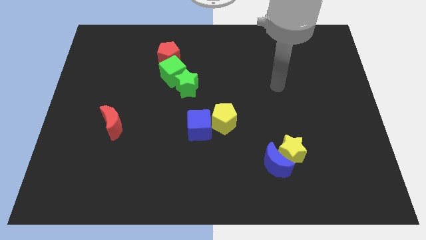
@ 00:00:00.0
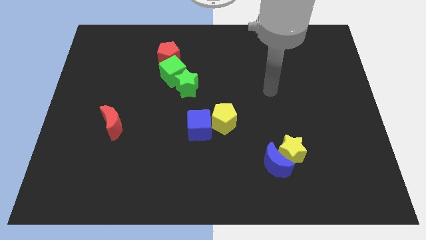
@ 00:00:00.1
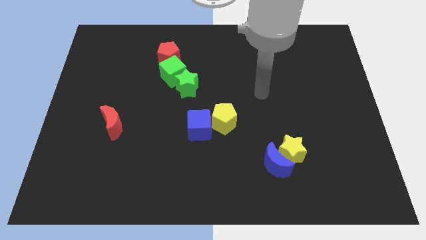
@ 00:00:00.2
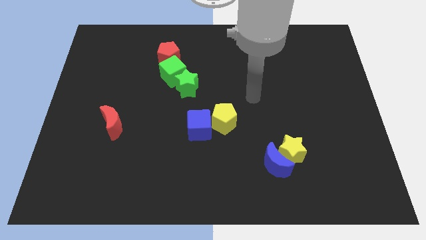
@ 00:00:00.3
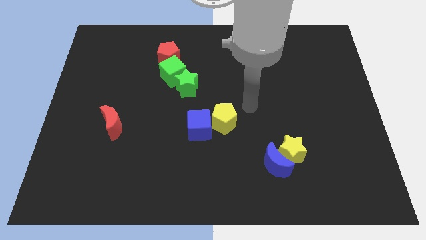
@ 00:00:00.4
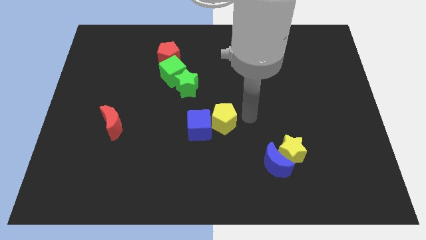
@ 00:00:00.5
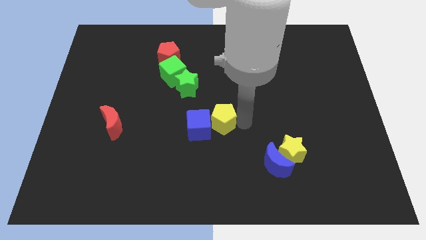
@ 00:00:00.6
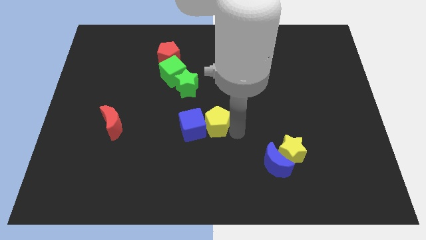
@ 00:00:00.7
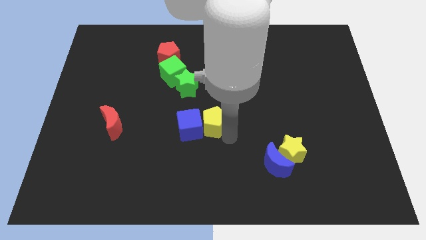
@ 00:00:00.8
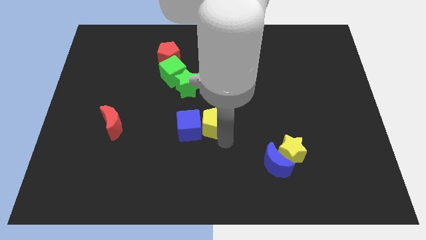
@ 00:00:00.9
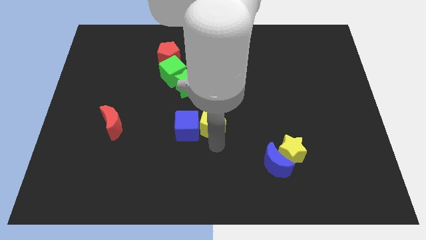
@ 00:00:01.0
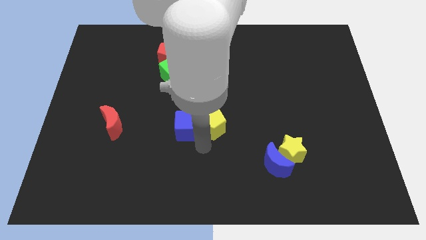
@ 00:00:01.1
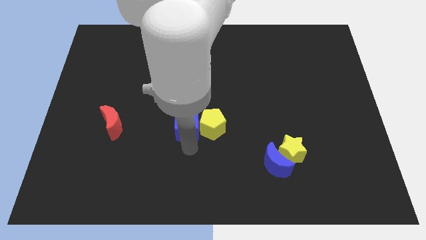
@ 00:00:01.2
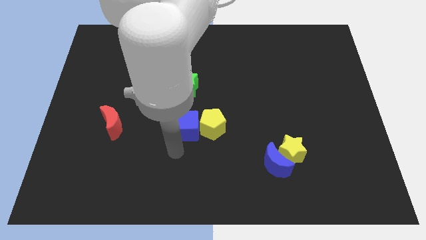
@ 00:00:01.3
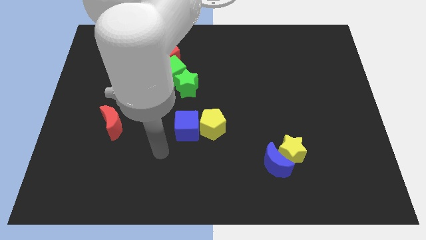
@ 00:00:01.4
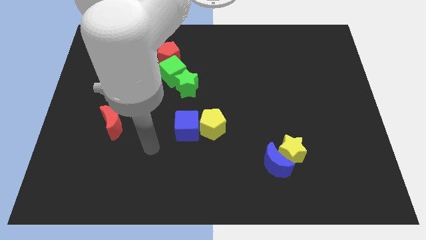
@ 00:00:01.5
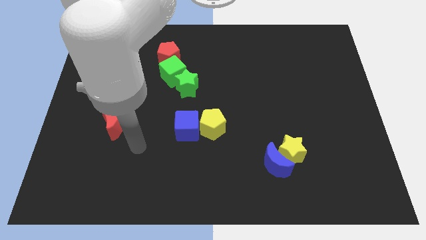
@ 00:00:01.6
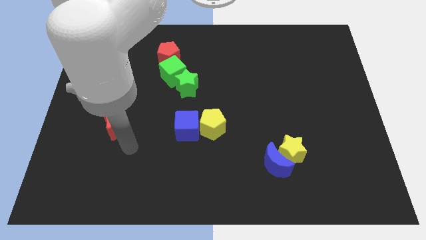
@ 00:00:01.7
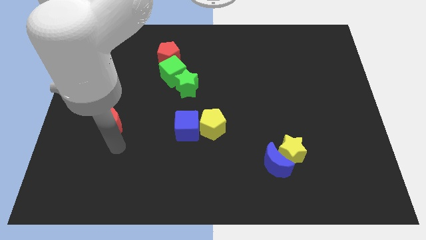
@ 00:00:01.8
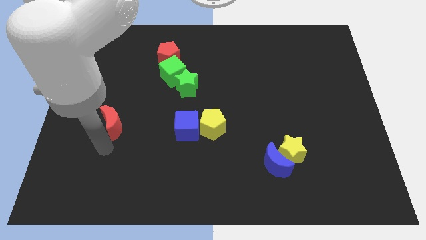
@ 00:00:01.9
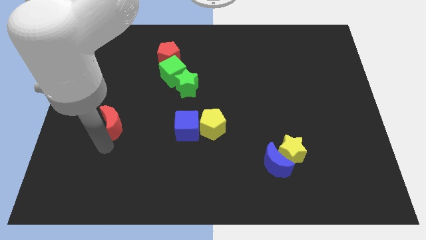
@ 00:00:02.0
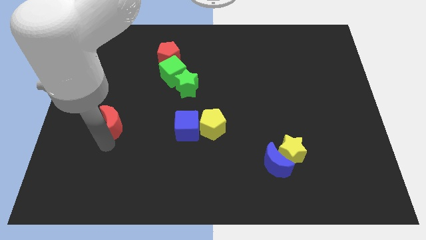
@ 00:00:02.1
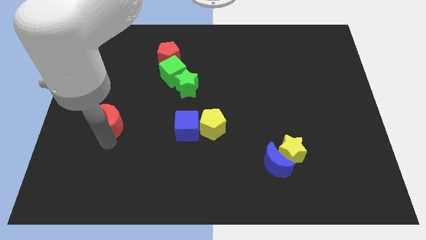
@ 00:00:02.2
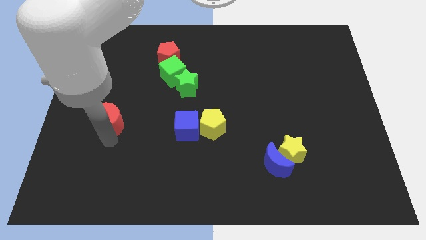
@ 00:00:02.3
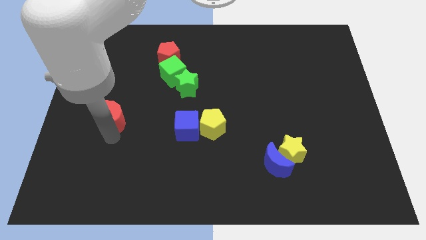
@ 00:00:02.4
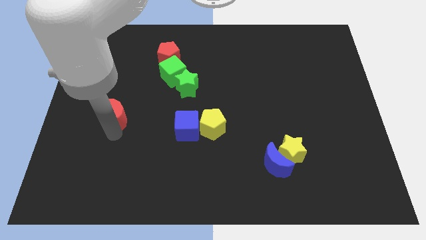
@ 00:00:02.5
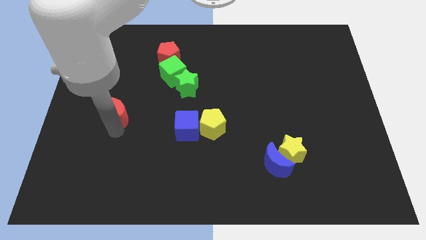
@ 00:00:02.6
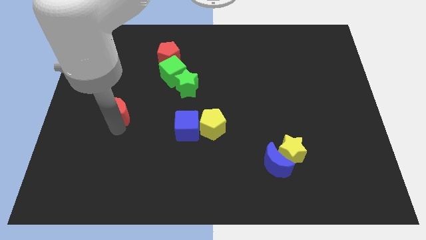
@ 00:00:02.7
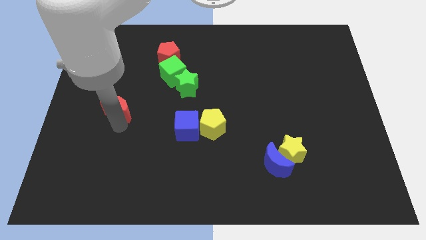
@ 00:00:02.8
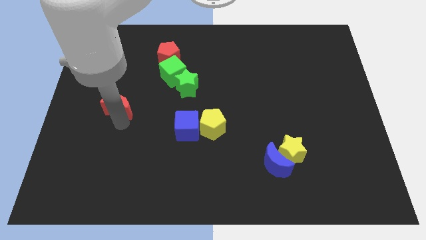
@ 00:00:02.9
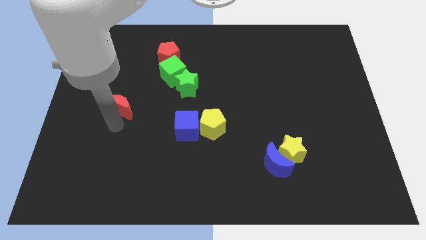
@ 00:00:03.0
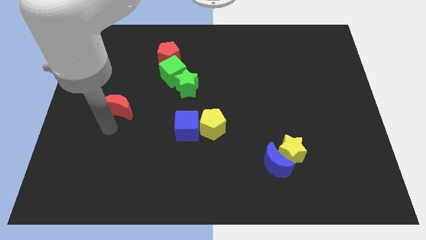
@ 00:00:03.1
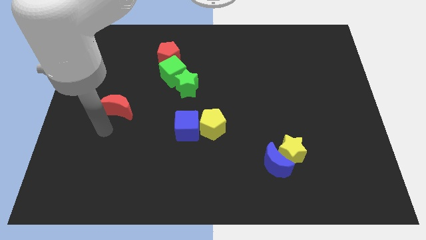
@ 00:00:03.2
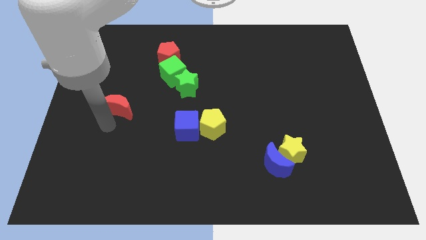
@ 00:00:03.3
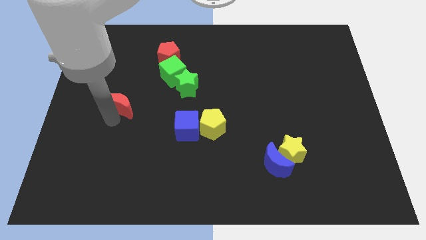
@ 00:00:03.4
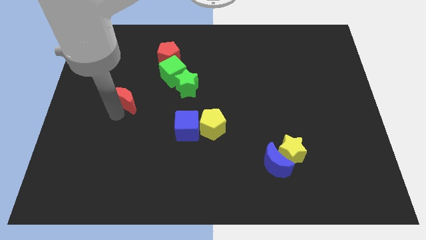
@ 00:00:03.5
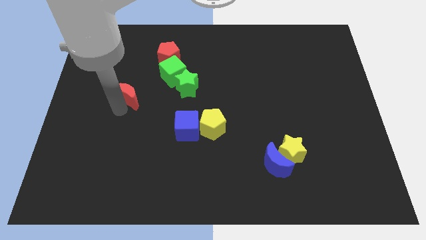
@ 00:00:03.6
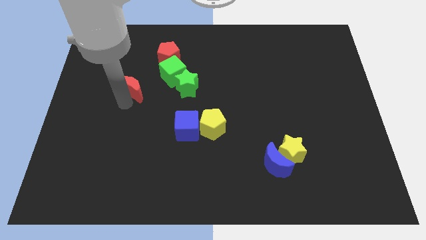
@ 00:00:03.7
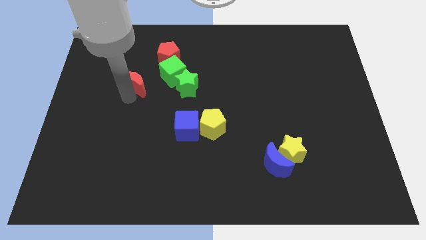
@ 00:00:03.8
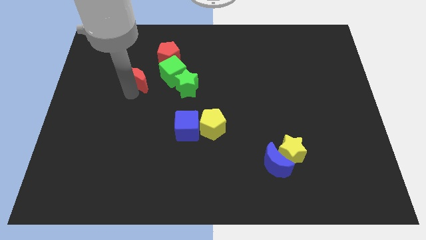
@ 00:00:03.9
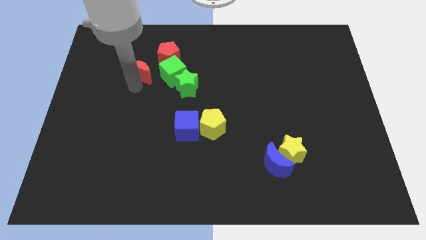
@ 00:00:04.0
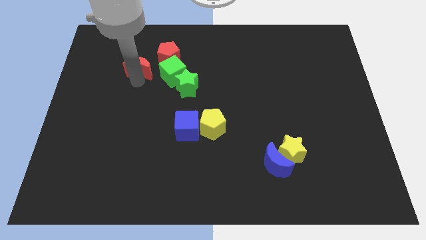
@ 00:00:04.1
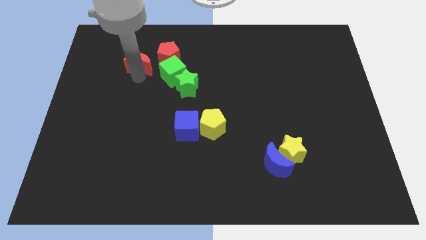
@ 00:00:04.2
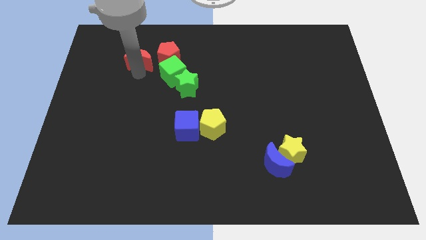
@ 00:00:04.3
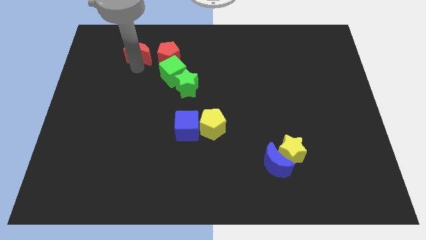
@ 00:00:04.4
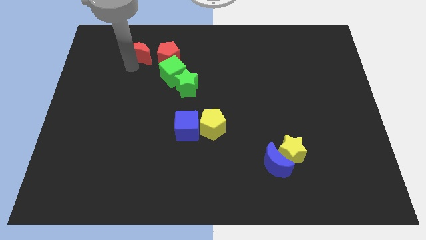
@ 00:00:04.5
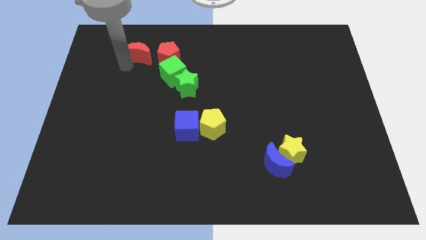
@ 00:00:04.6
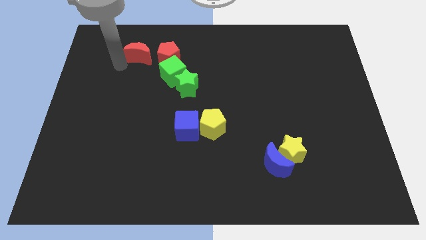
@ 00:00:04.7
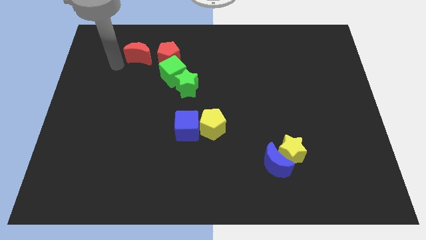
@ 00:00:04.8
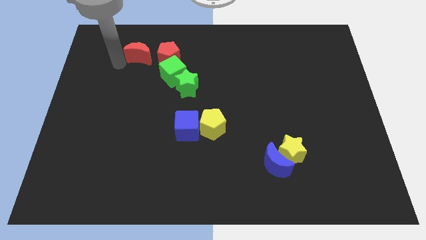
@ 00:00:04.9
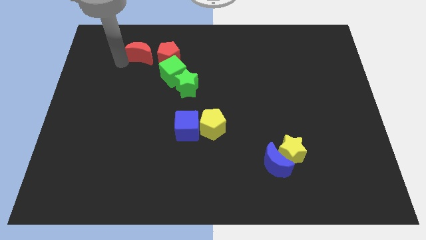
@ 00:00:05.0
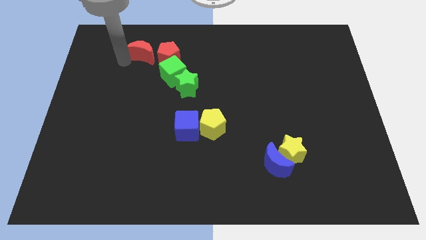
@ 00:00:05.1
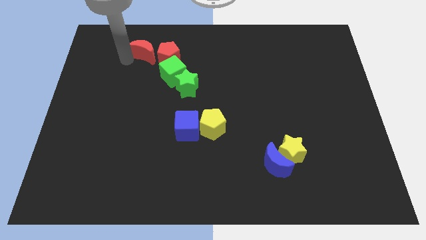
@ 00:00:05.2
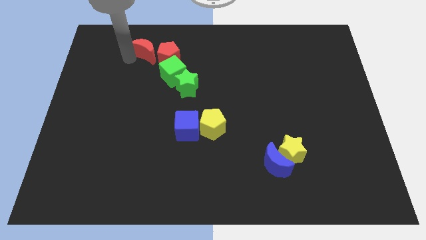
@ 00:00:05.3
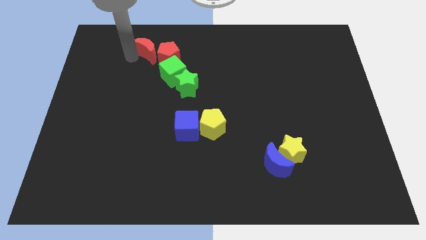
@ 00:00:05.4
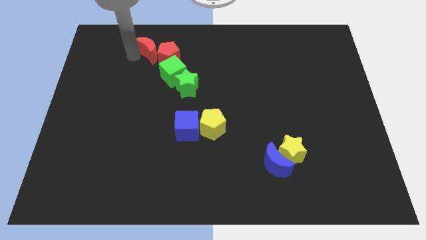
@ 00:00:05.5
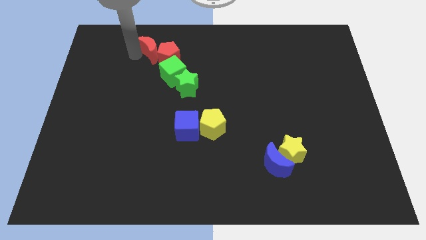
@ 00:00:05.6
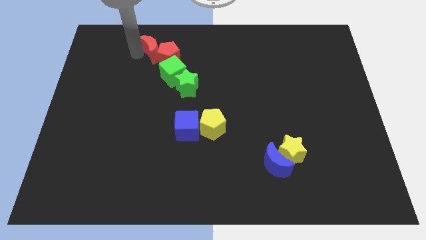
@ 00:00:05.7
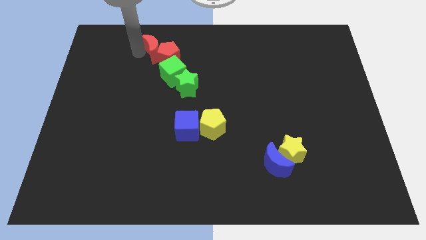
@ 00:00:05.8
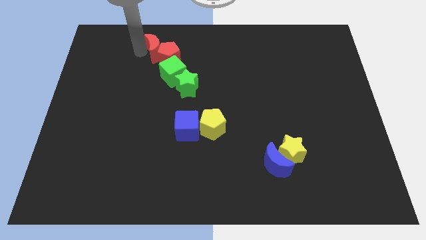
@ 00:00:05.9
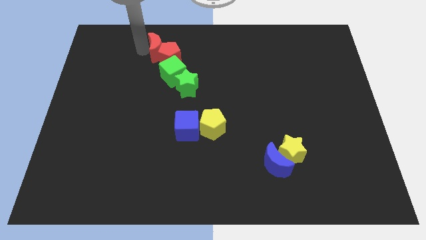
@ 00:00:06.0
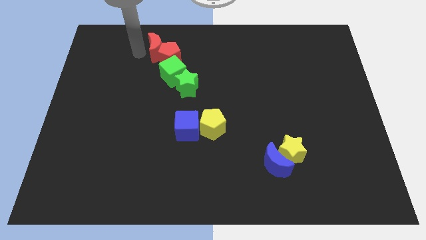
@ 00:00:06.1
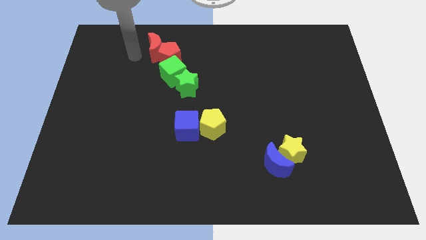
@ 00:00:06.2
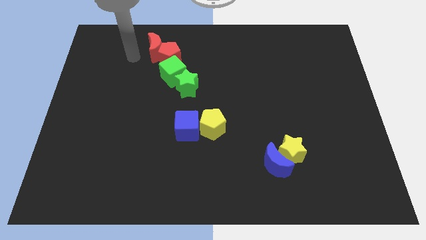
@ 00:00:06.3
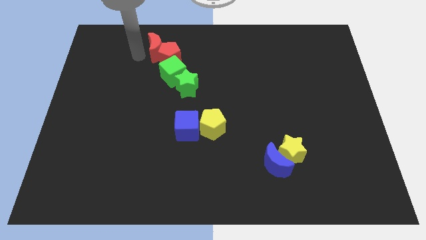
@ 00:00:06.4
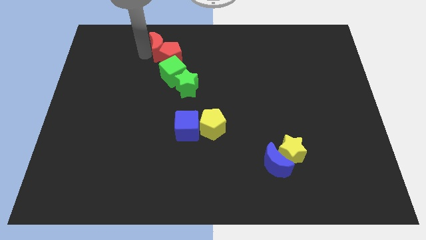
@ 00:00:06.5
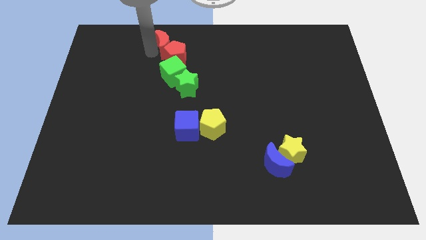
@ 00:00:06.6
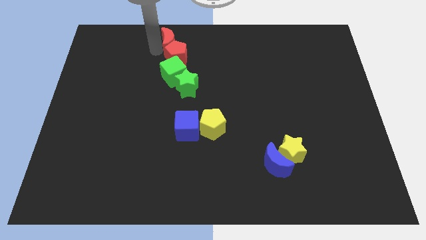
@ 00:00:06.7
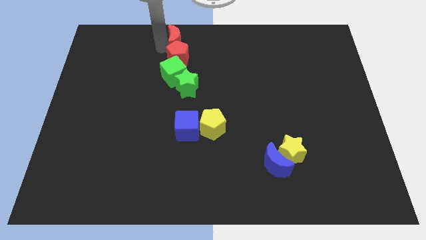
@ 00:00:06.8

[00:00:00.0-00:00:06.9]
move the red moon to the towards your base
